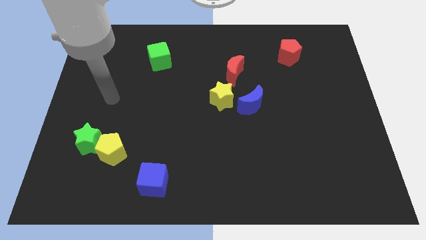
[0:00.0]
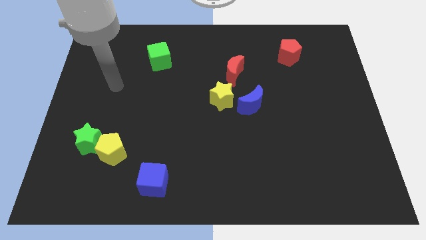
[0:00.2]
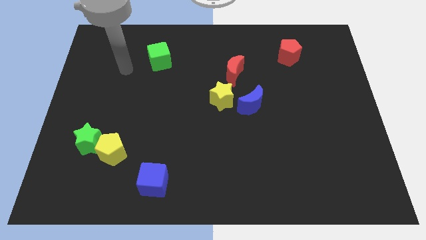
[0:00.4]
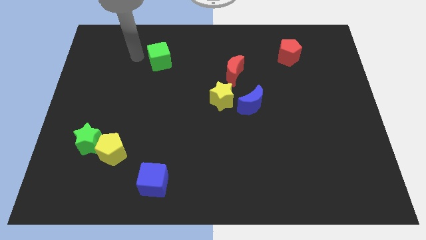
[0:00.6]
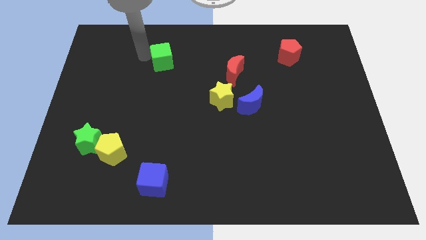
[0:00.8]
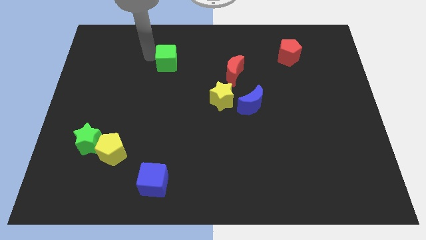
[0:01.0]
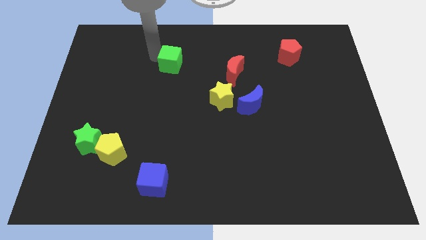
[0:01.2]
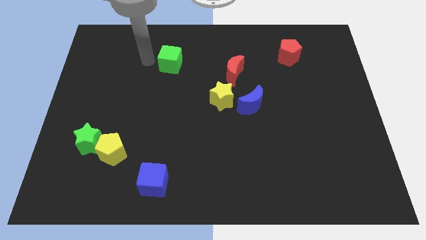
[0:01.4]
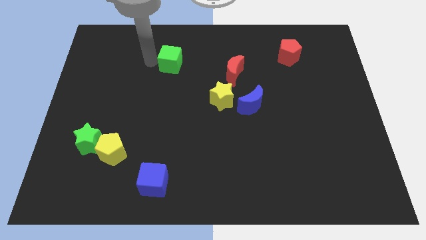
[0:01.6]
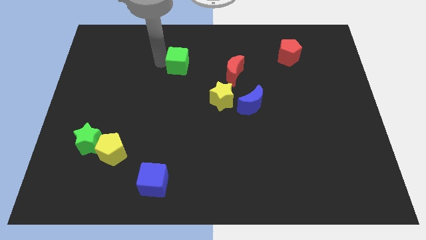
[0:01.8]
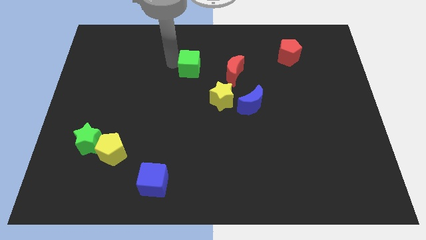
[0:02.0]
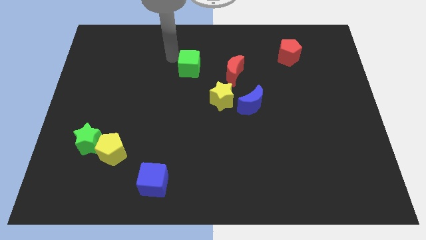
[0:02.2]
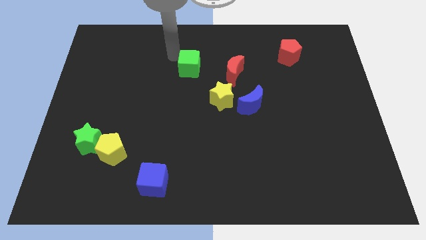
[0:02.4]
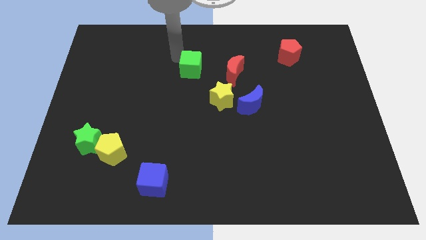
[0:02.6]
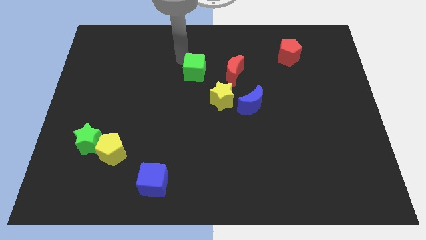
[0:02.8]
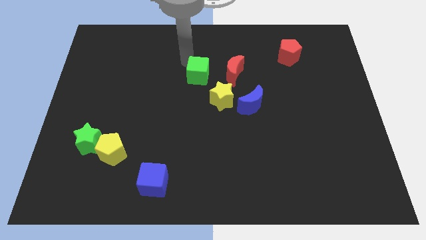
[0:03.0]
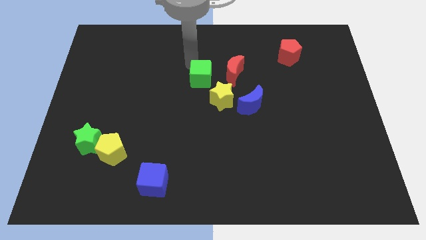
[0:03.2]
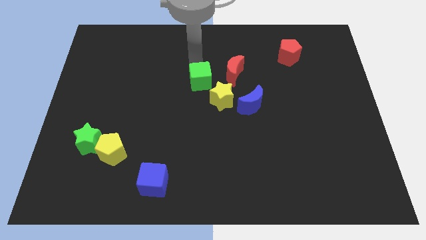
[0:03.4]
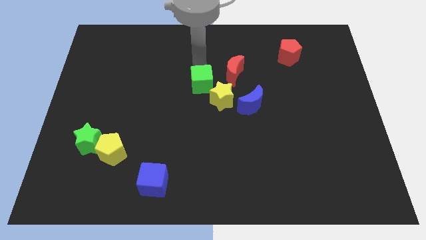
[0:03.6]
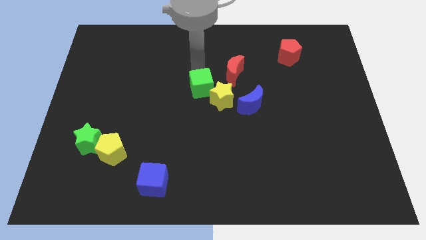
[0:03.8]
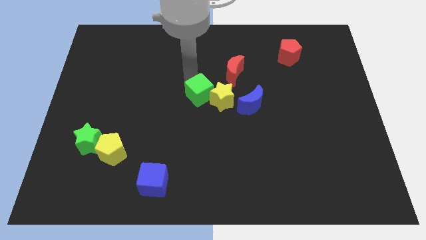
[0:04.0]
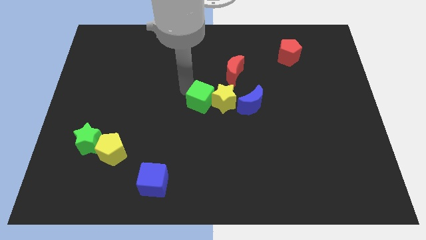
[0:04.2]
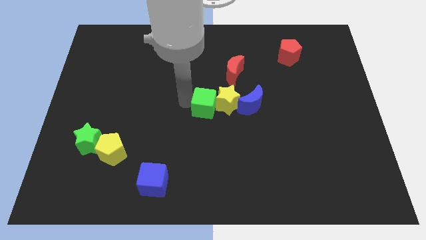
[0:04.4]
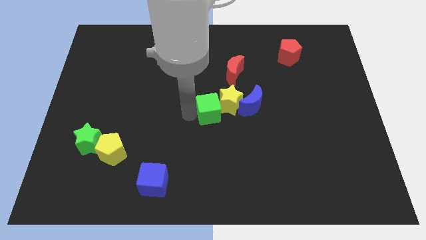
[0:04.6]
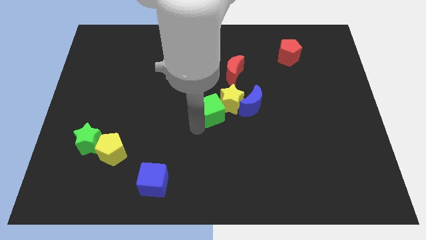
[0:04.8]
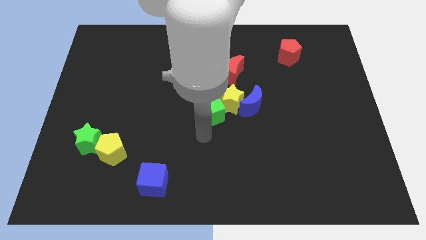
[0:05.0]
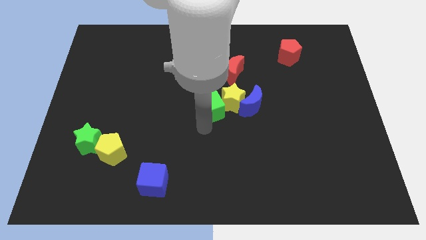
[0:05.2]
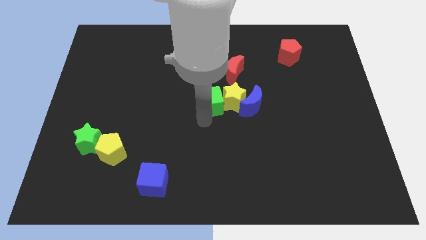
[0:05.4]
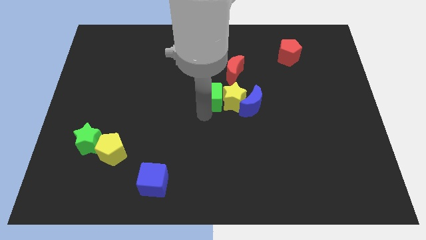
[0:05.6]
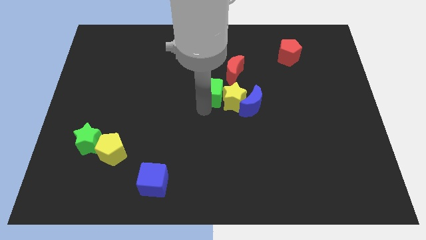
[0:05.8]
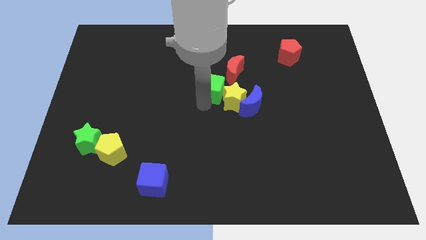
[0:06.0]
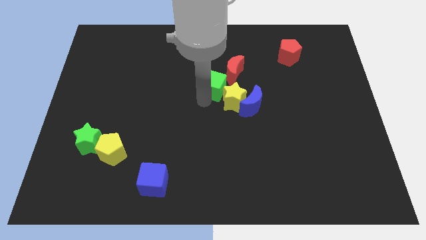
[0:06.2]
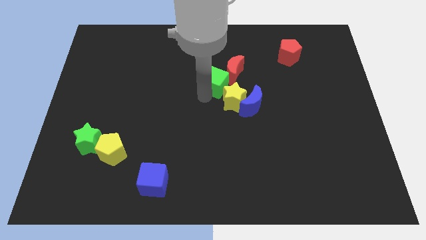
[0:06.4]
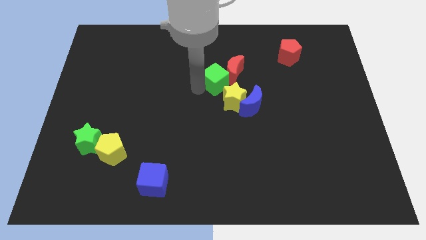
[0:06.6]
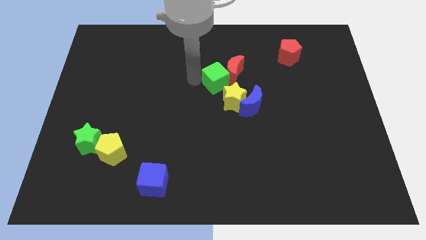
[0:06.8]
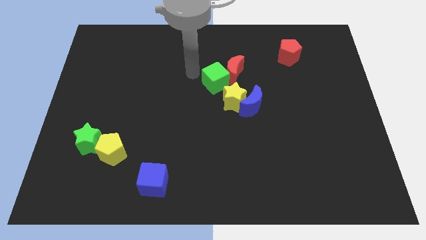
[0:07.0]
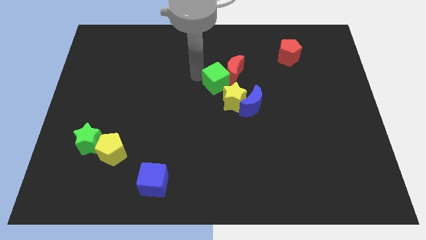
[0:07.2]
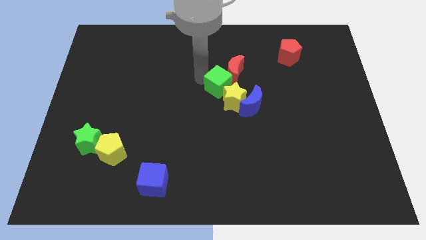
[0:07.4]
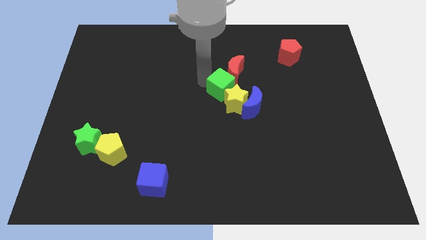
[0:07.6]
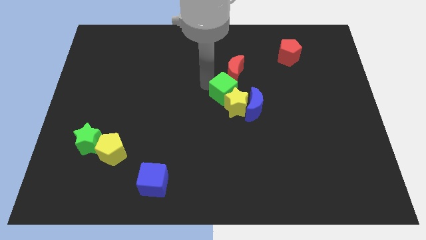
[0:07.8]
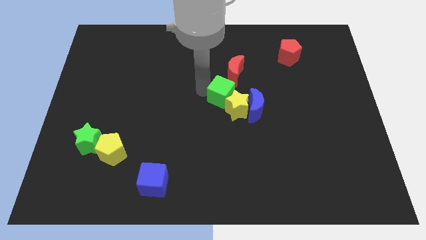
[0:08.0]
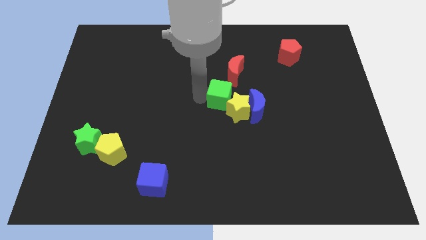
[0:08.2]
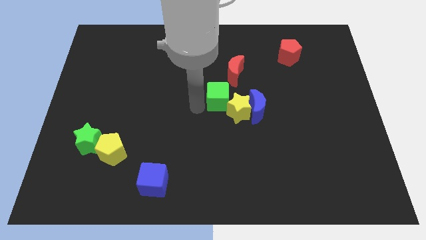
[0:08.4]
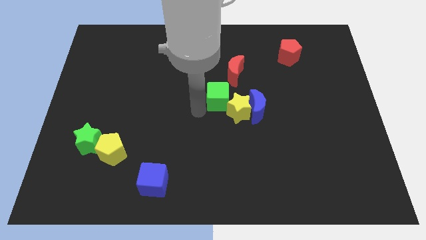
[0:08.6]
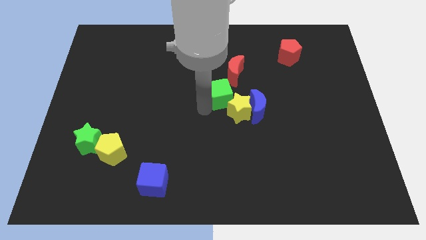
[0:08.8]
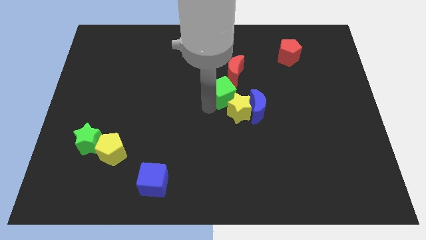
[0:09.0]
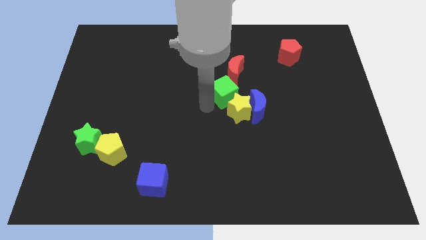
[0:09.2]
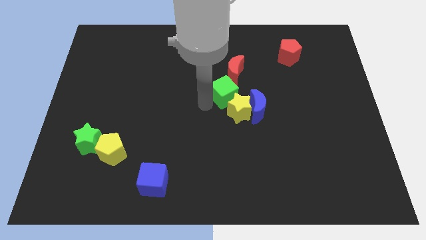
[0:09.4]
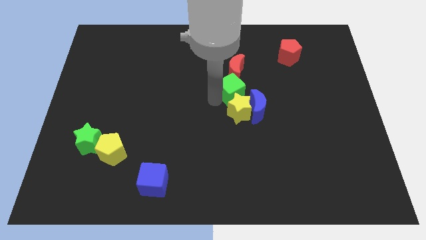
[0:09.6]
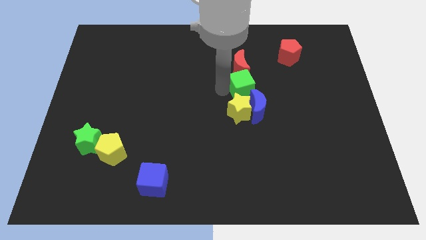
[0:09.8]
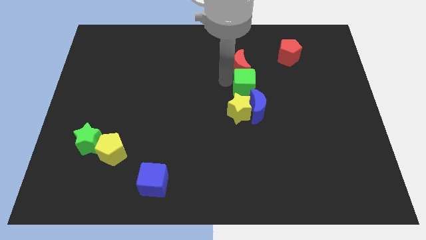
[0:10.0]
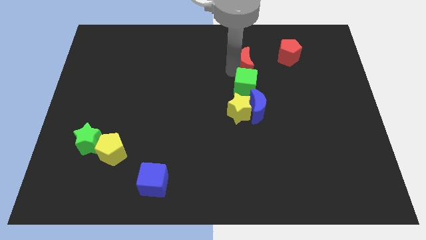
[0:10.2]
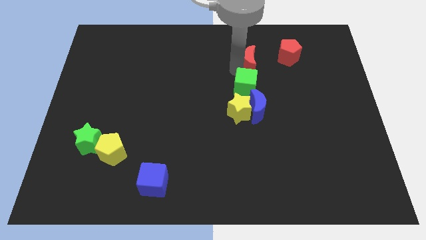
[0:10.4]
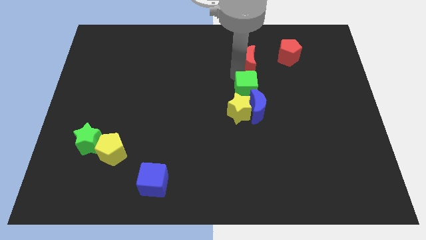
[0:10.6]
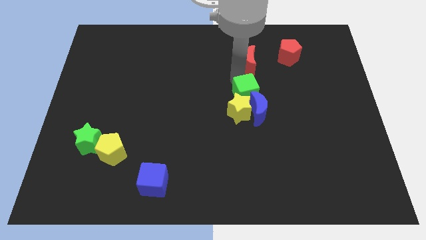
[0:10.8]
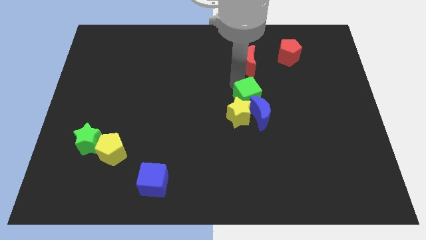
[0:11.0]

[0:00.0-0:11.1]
push the green cube close to the blue moon

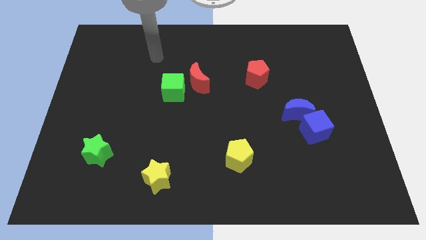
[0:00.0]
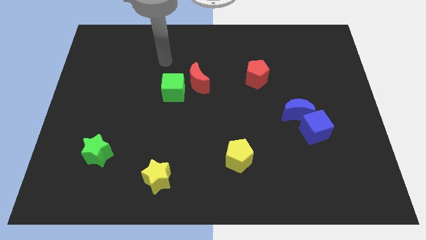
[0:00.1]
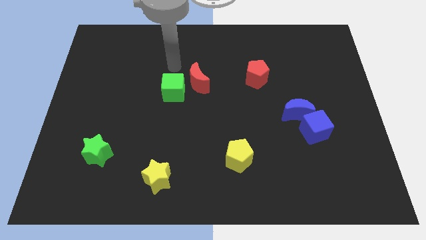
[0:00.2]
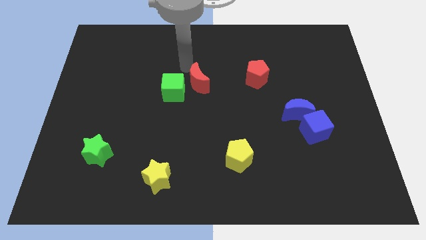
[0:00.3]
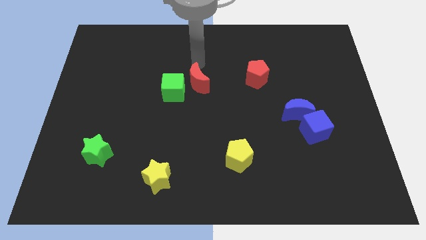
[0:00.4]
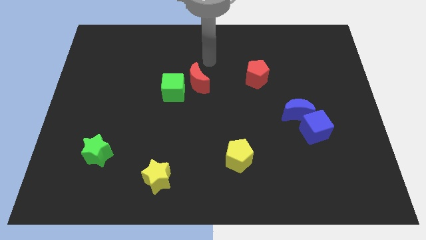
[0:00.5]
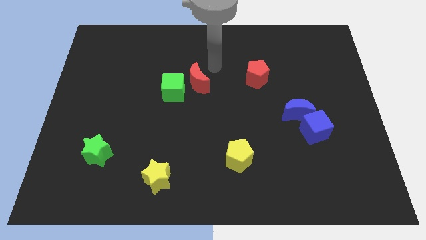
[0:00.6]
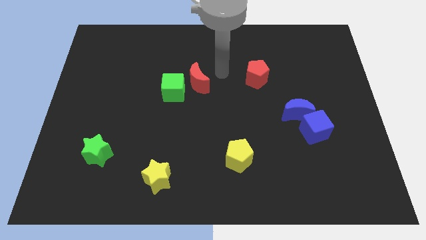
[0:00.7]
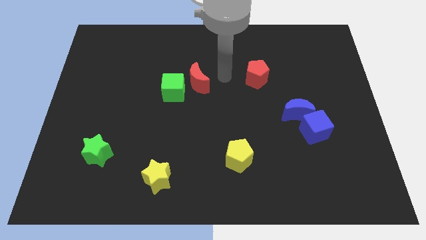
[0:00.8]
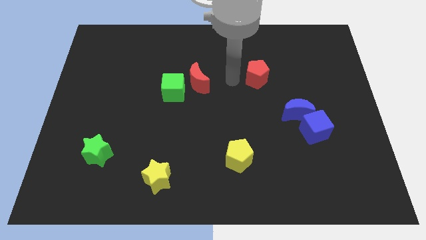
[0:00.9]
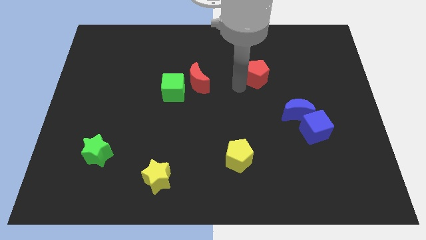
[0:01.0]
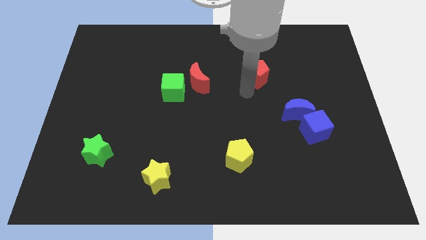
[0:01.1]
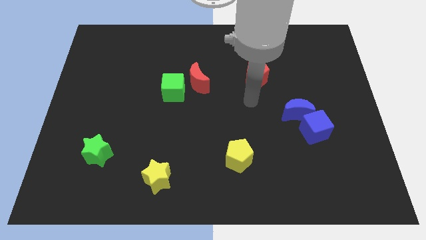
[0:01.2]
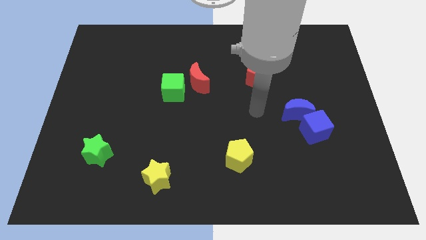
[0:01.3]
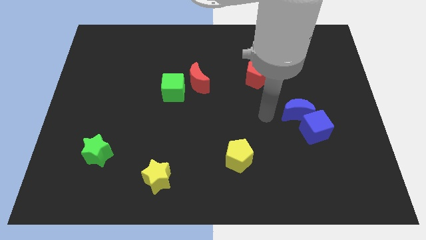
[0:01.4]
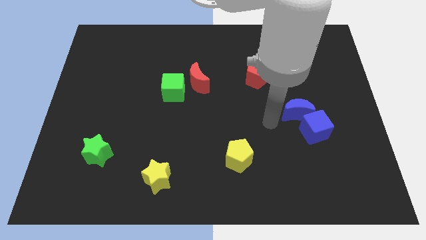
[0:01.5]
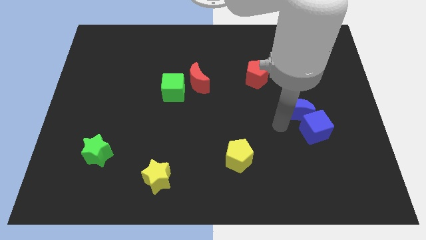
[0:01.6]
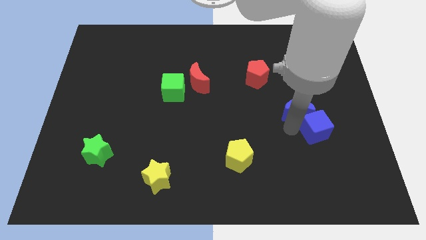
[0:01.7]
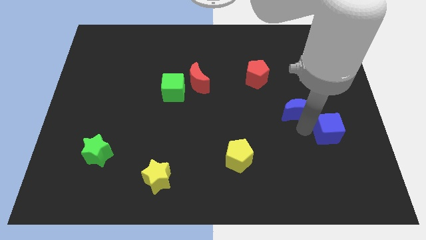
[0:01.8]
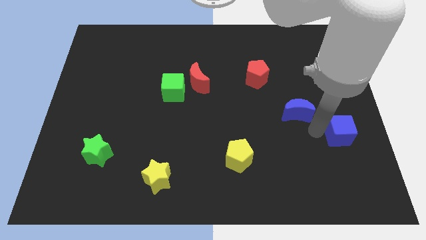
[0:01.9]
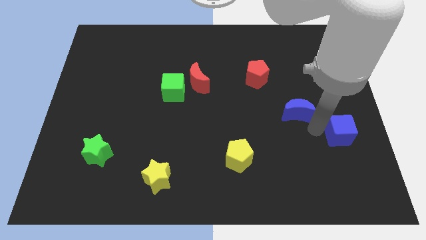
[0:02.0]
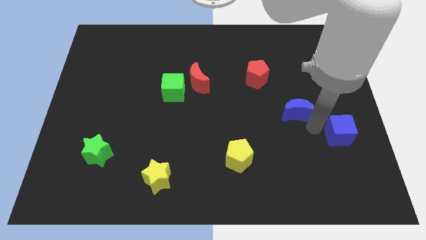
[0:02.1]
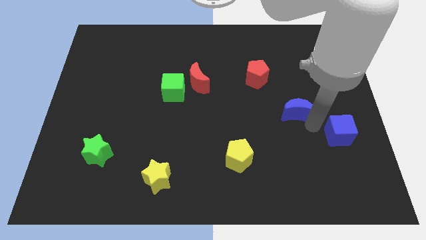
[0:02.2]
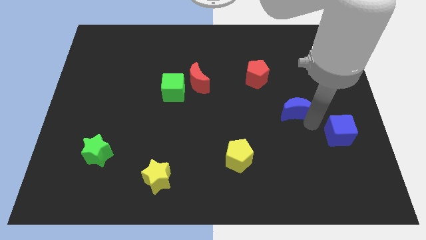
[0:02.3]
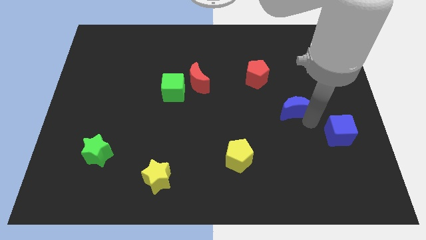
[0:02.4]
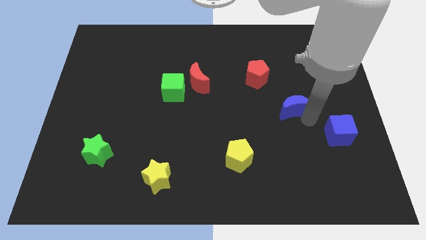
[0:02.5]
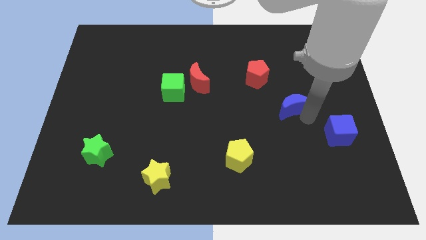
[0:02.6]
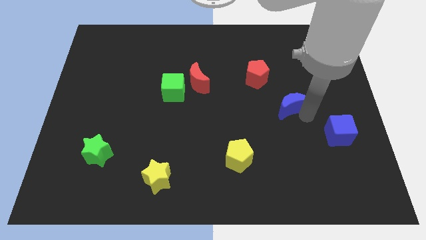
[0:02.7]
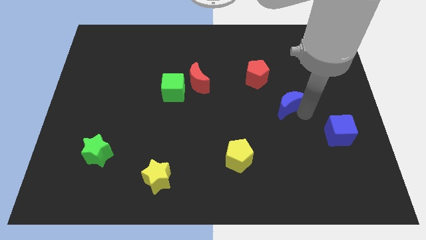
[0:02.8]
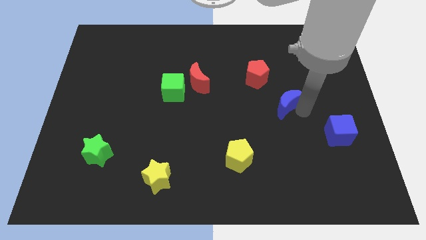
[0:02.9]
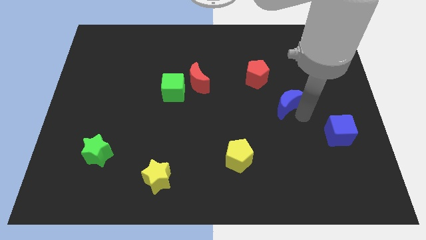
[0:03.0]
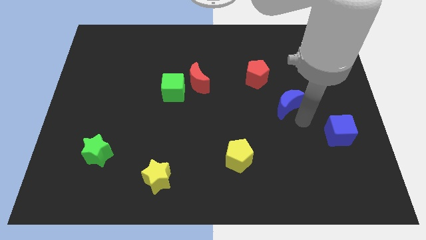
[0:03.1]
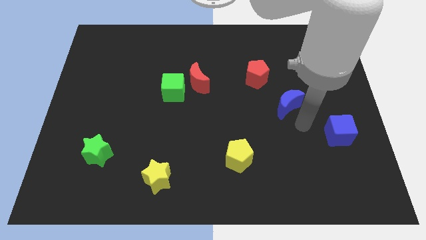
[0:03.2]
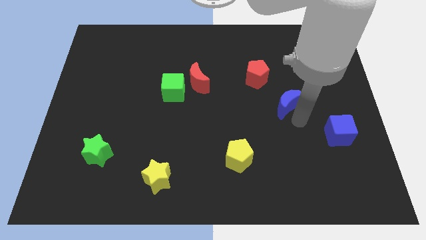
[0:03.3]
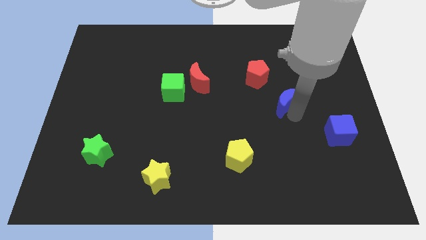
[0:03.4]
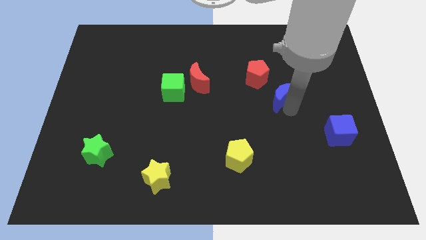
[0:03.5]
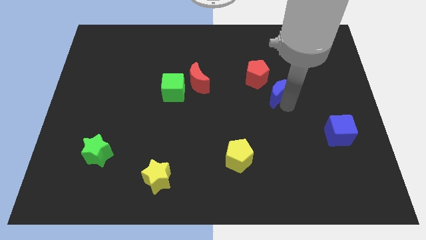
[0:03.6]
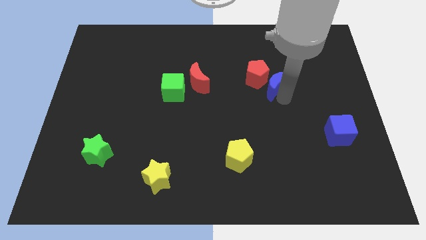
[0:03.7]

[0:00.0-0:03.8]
move the blue moon towards the red pentagon
